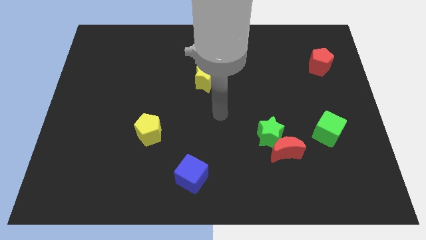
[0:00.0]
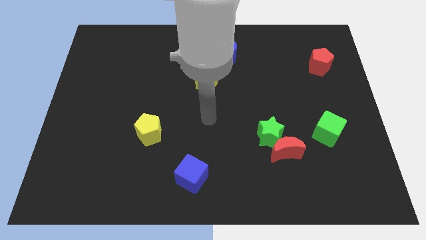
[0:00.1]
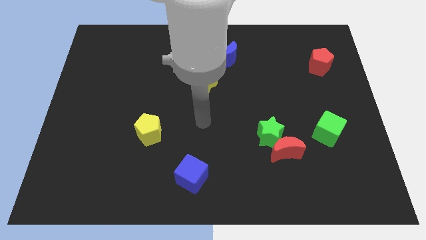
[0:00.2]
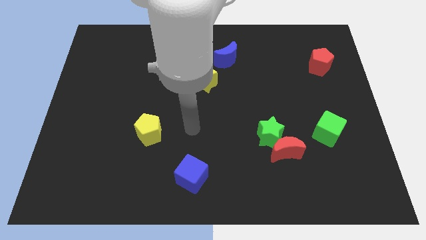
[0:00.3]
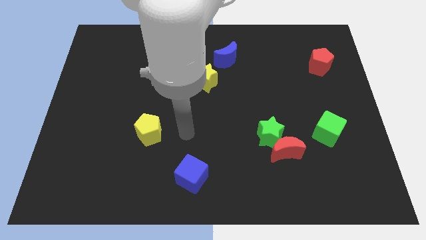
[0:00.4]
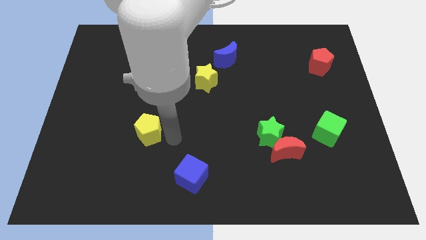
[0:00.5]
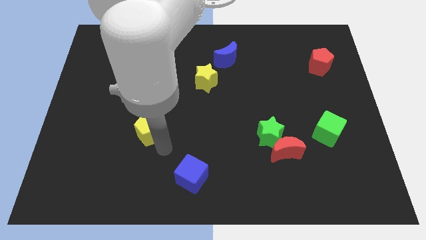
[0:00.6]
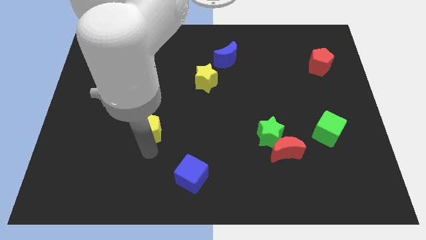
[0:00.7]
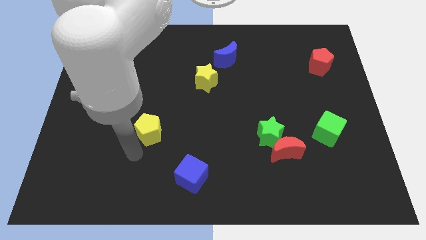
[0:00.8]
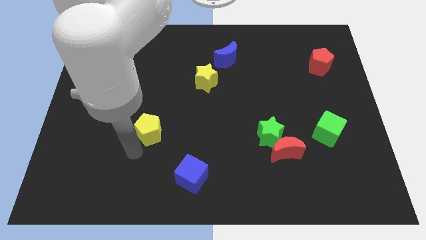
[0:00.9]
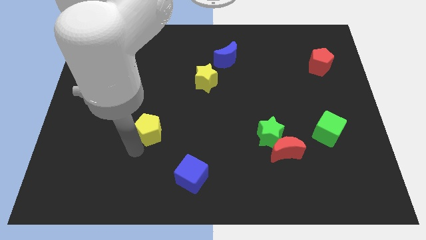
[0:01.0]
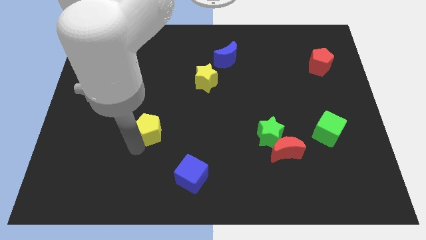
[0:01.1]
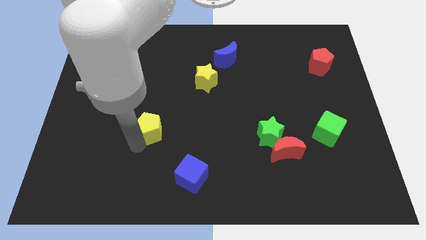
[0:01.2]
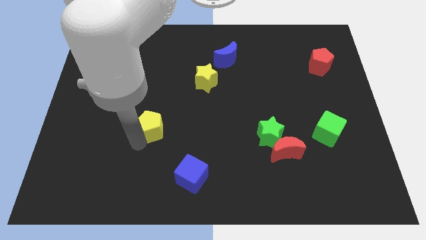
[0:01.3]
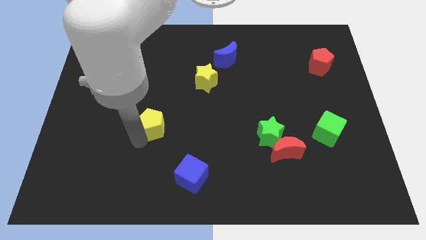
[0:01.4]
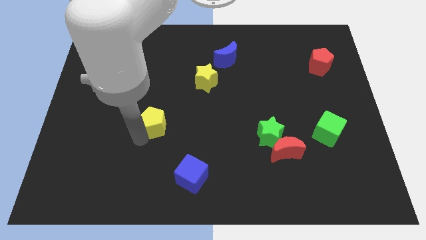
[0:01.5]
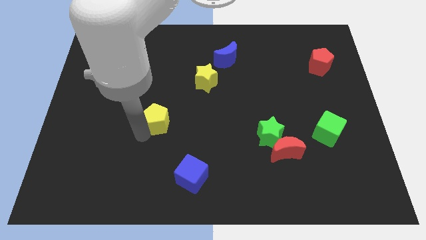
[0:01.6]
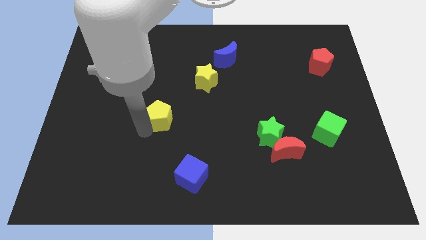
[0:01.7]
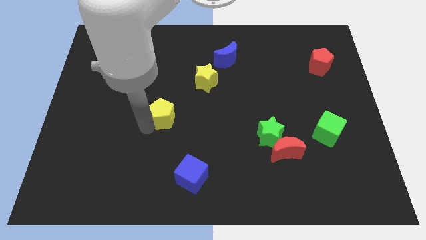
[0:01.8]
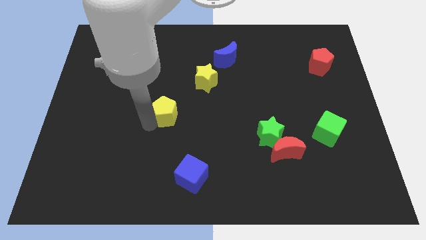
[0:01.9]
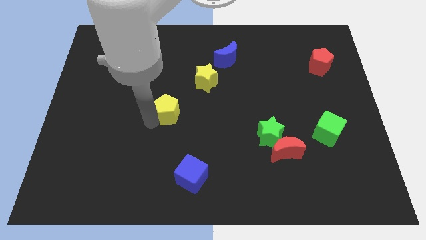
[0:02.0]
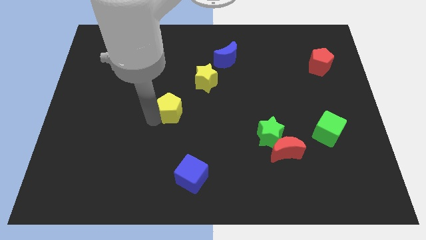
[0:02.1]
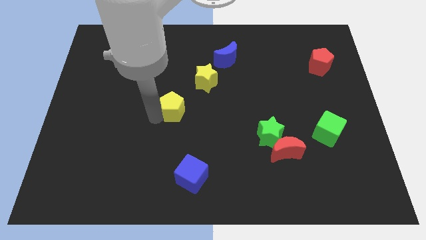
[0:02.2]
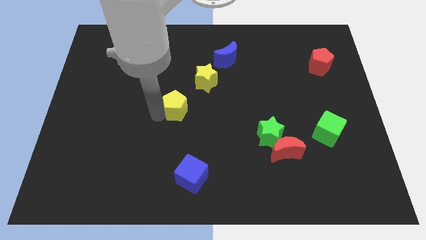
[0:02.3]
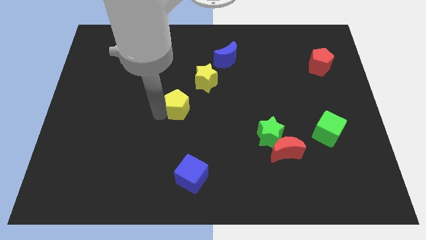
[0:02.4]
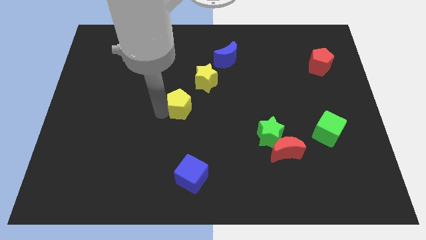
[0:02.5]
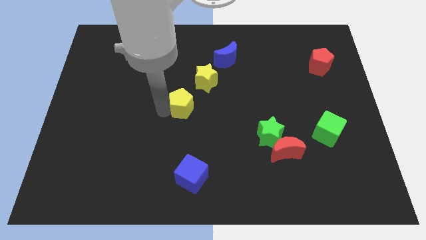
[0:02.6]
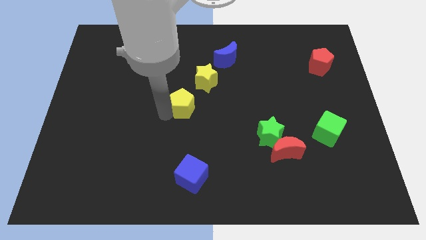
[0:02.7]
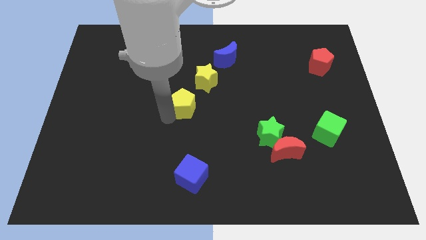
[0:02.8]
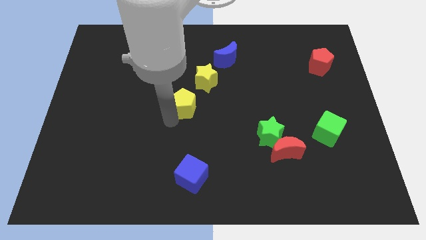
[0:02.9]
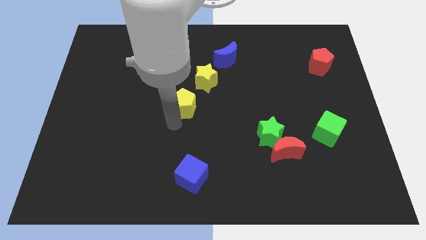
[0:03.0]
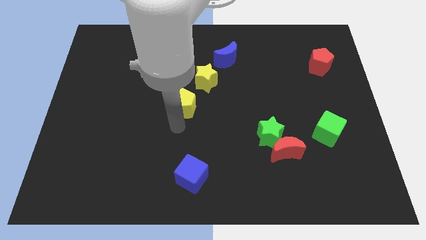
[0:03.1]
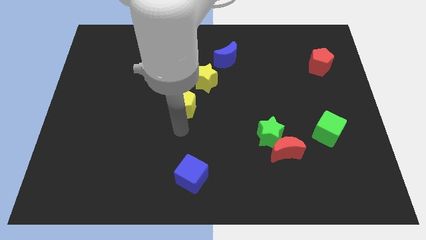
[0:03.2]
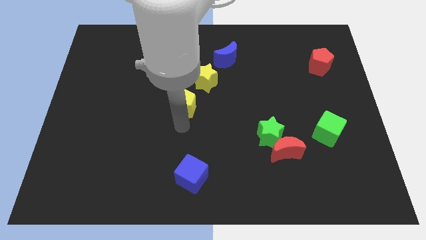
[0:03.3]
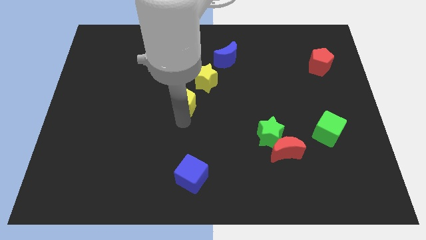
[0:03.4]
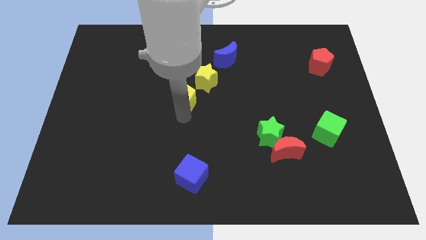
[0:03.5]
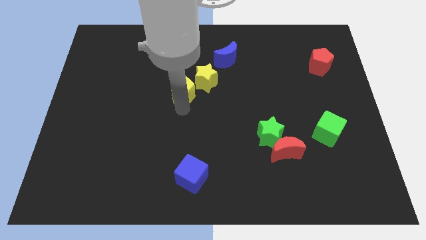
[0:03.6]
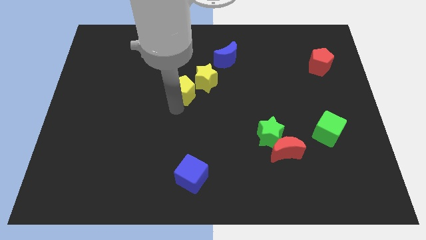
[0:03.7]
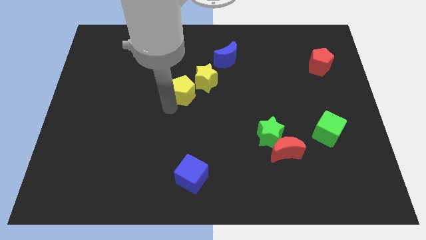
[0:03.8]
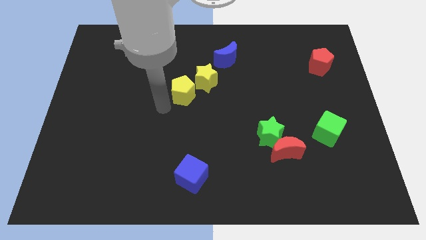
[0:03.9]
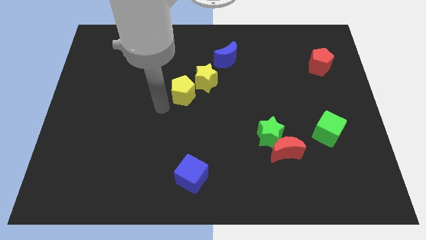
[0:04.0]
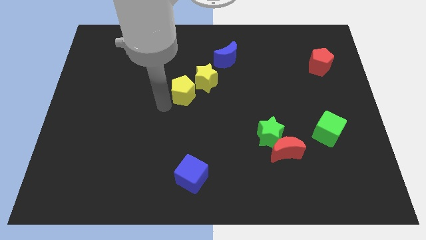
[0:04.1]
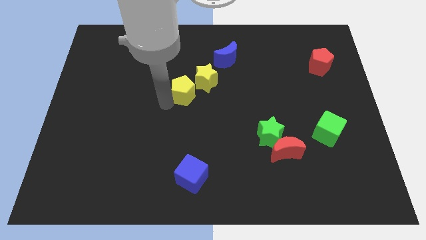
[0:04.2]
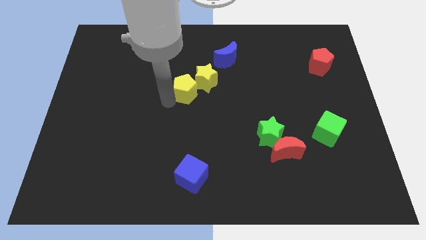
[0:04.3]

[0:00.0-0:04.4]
move the yellow pentagon towards the yellow star

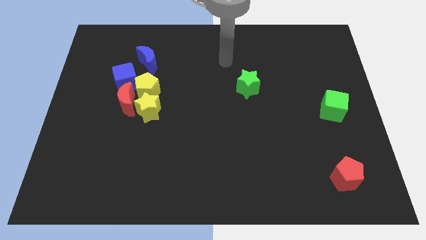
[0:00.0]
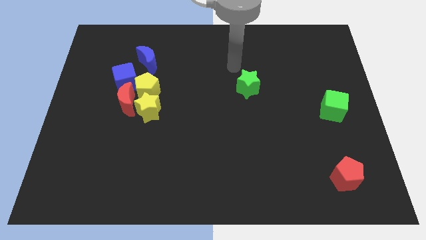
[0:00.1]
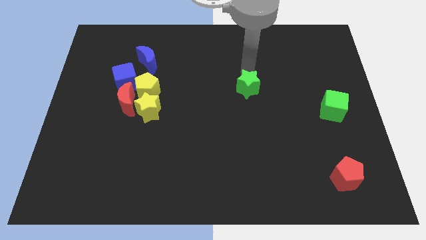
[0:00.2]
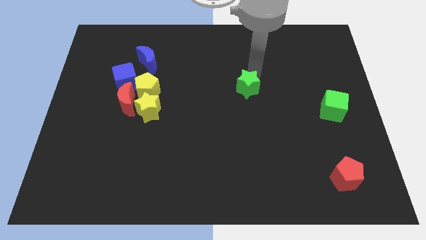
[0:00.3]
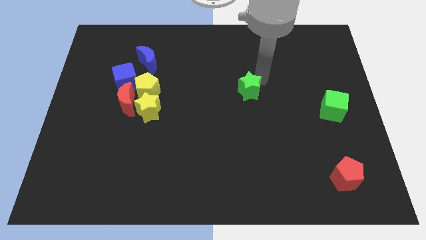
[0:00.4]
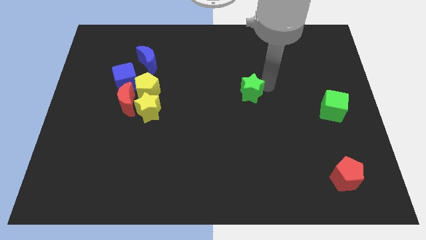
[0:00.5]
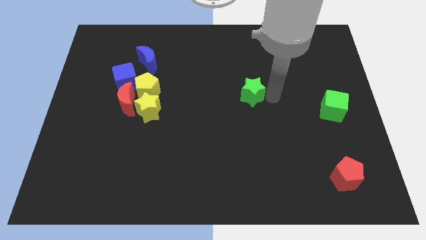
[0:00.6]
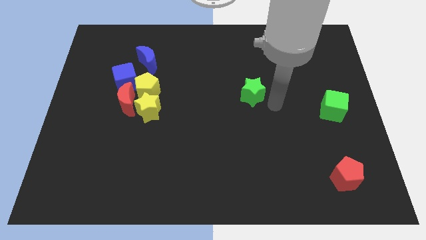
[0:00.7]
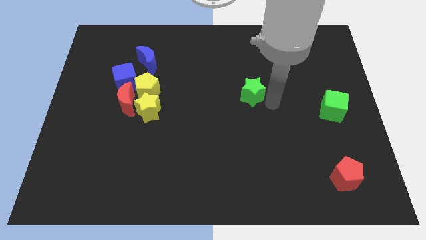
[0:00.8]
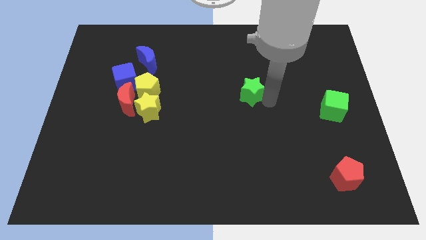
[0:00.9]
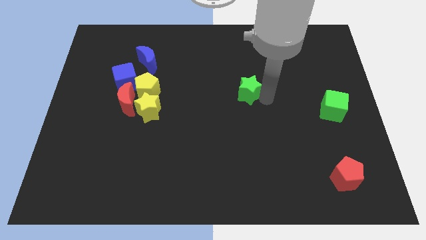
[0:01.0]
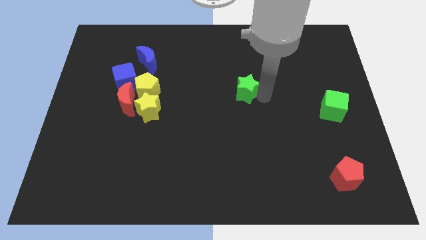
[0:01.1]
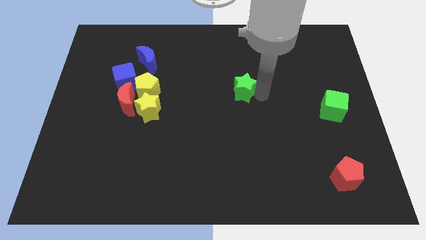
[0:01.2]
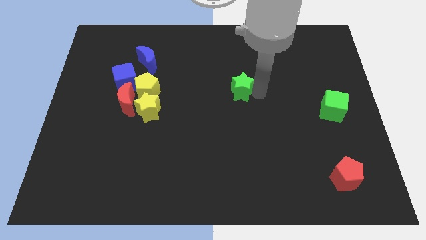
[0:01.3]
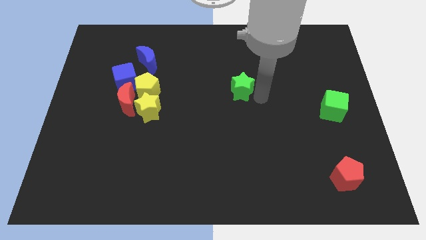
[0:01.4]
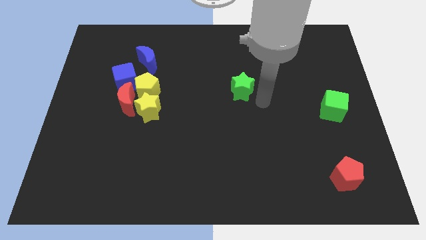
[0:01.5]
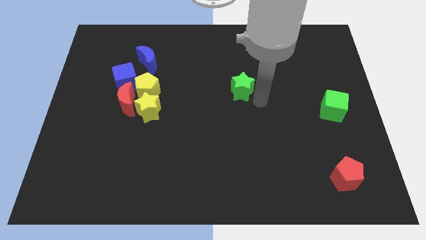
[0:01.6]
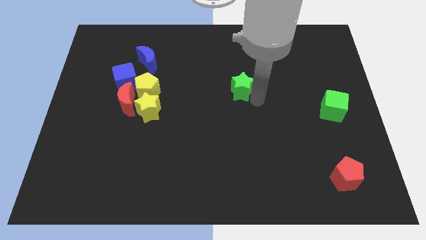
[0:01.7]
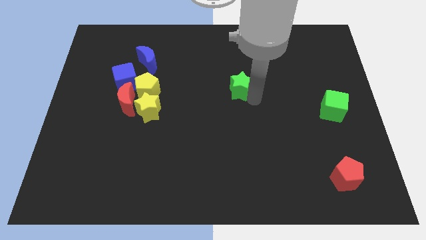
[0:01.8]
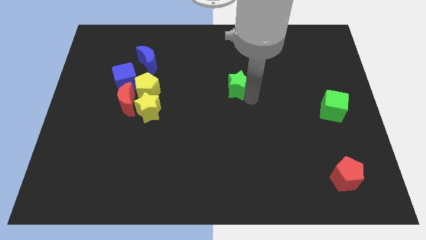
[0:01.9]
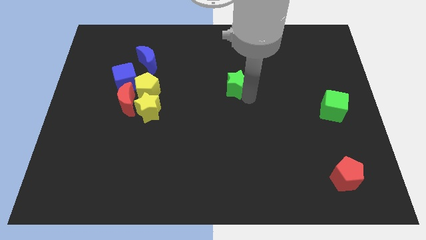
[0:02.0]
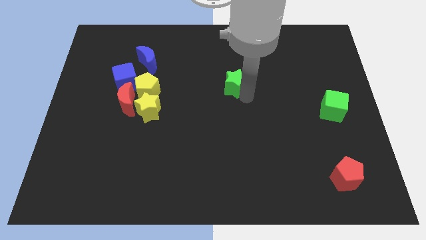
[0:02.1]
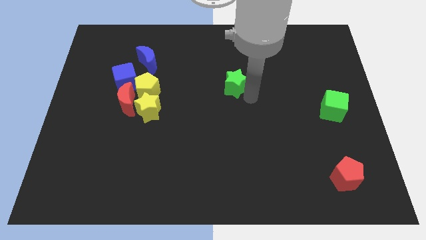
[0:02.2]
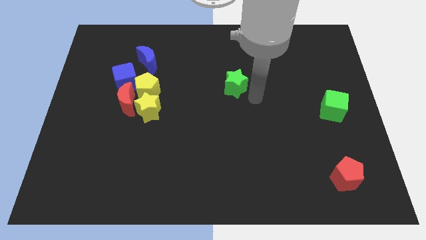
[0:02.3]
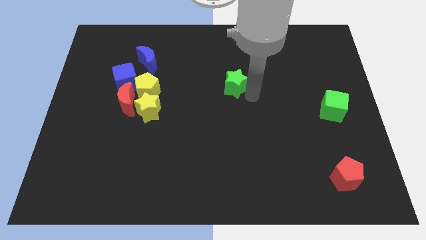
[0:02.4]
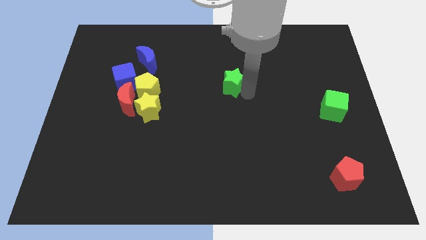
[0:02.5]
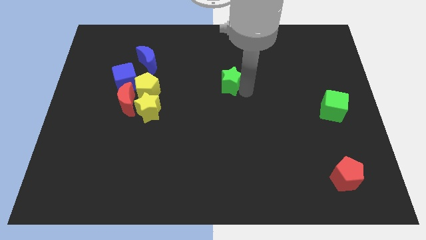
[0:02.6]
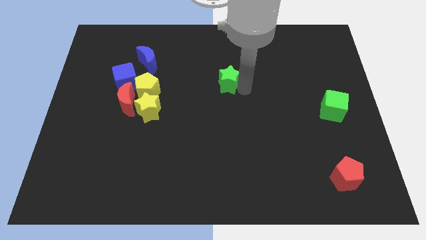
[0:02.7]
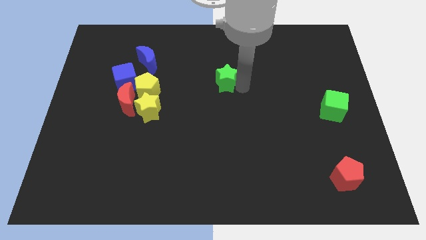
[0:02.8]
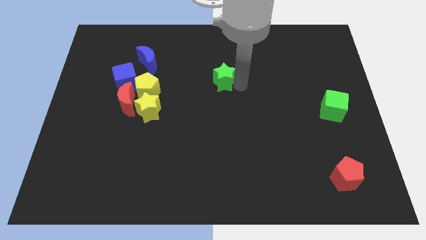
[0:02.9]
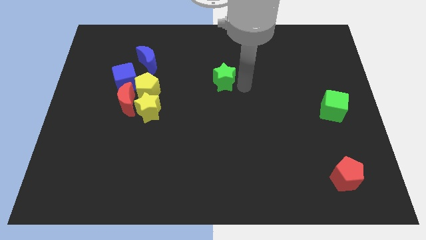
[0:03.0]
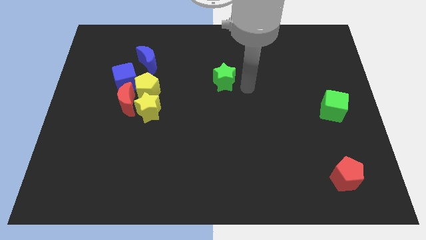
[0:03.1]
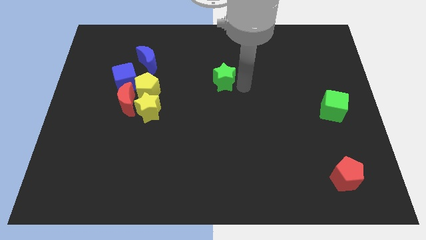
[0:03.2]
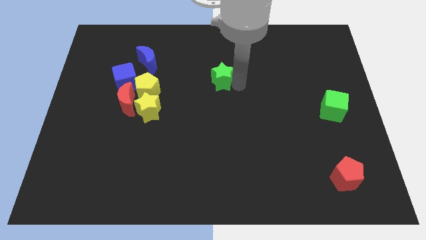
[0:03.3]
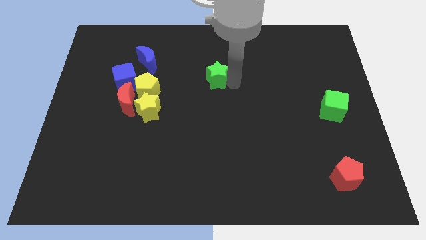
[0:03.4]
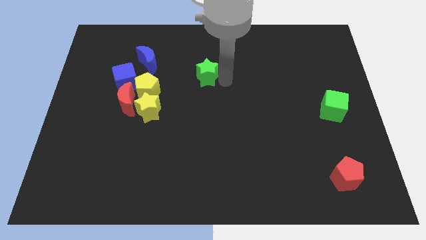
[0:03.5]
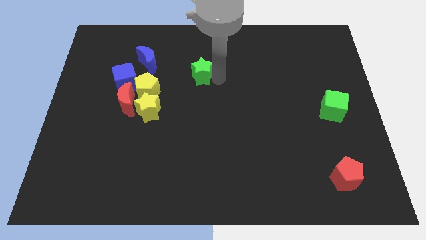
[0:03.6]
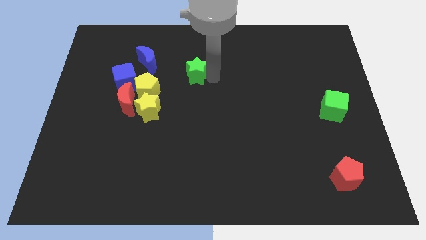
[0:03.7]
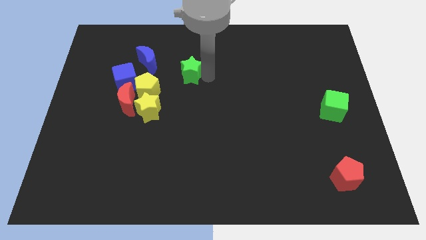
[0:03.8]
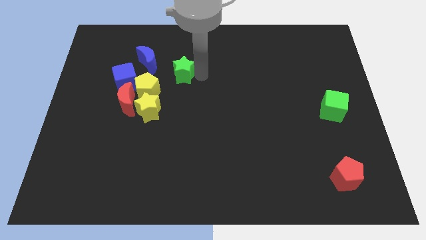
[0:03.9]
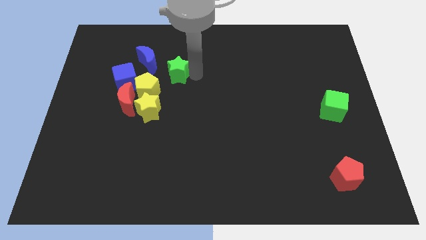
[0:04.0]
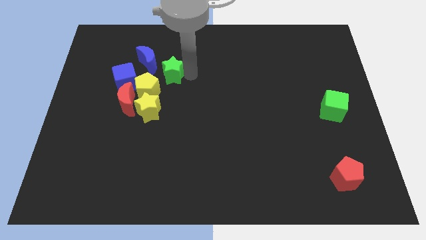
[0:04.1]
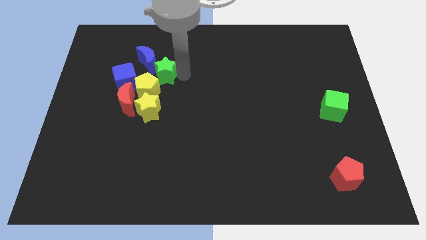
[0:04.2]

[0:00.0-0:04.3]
slide the green star to the blue moon
